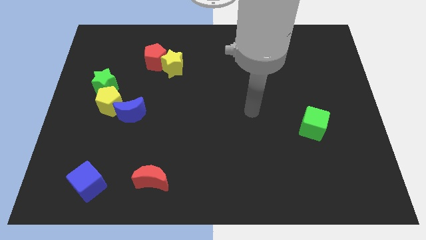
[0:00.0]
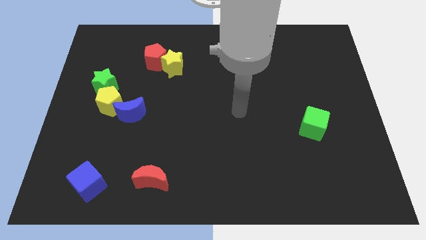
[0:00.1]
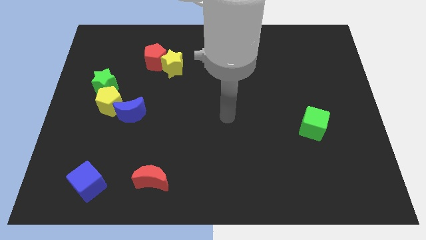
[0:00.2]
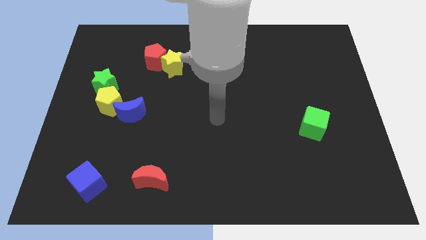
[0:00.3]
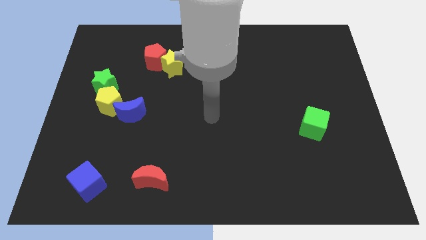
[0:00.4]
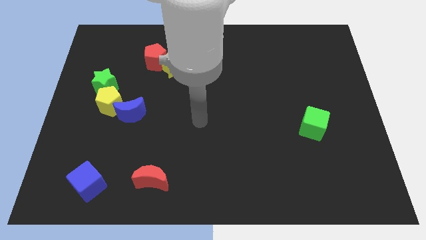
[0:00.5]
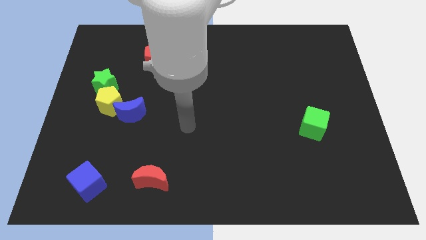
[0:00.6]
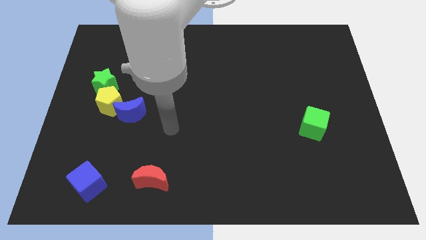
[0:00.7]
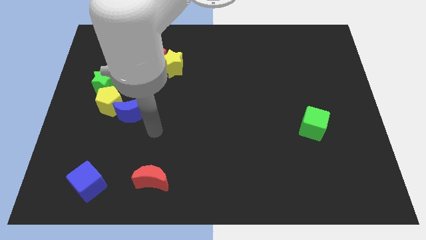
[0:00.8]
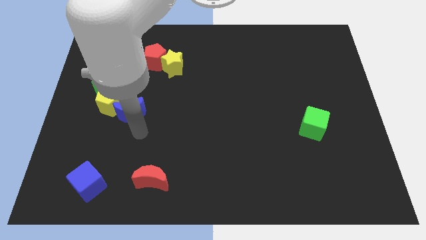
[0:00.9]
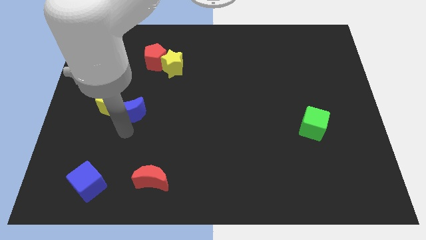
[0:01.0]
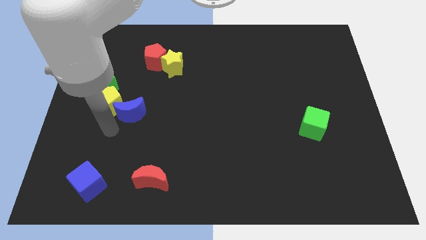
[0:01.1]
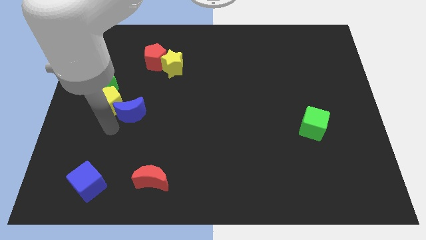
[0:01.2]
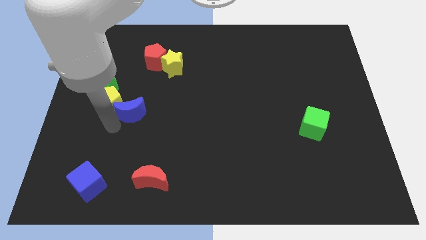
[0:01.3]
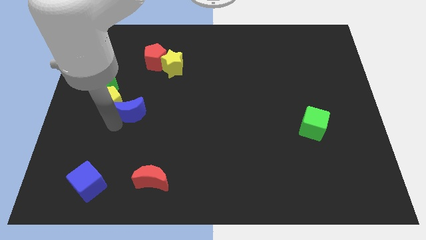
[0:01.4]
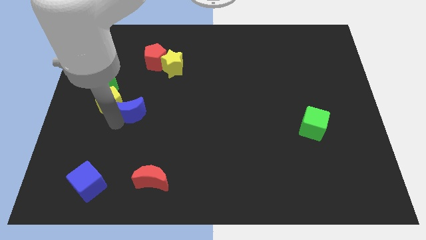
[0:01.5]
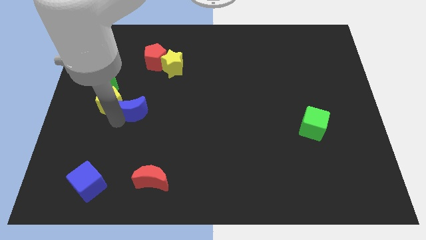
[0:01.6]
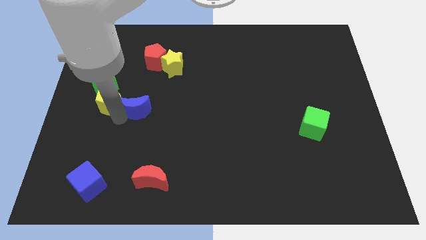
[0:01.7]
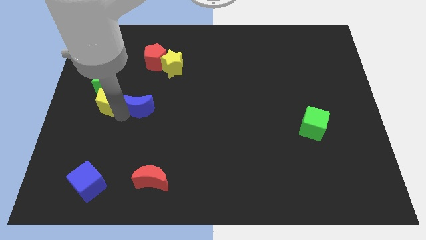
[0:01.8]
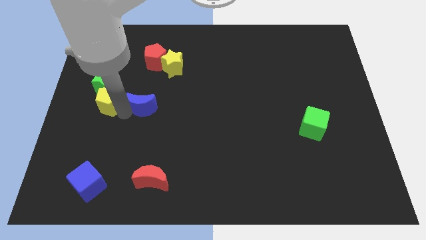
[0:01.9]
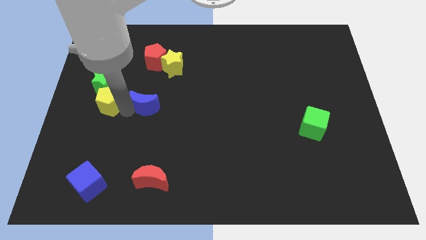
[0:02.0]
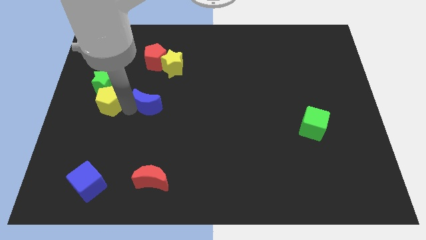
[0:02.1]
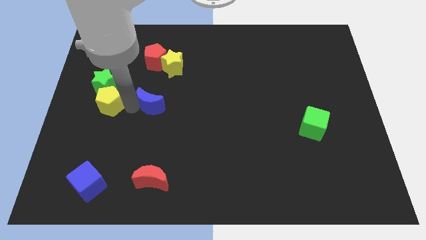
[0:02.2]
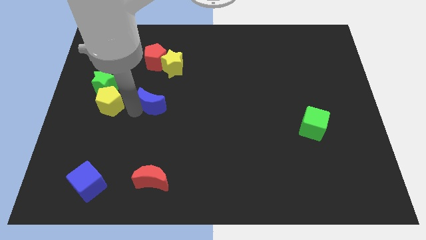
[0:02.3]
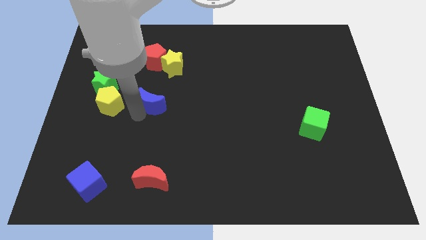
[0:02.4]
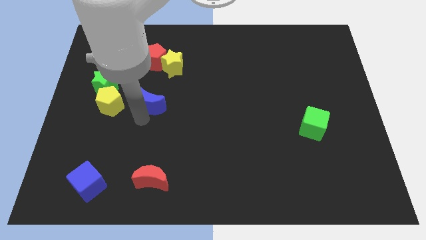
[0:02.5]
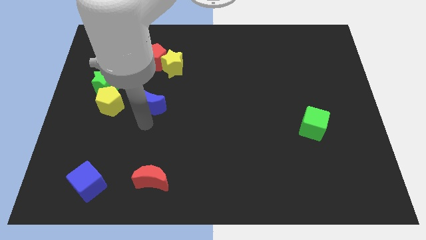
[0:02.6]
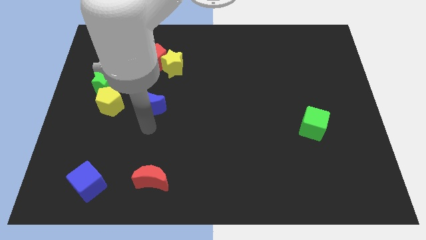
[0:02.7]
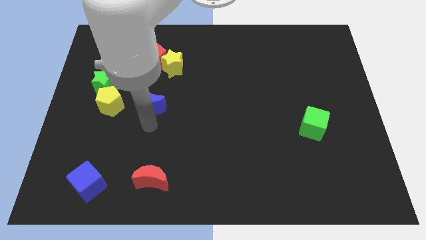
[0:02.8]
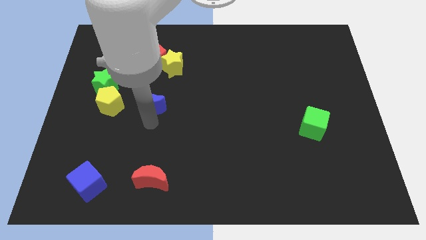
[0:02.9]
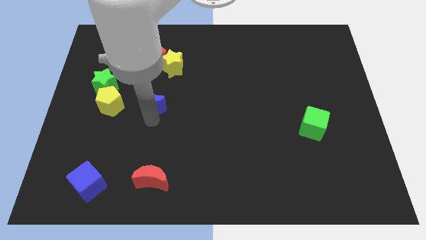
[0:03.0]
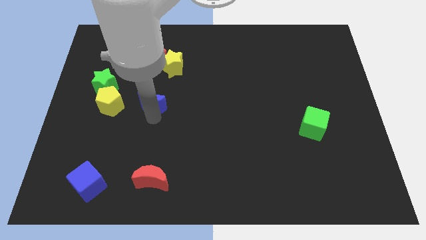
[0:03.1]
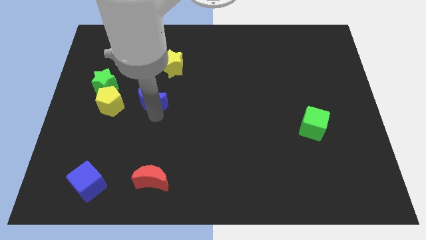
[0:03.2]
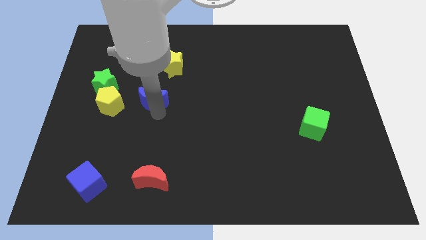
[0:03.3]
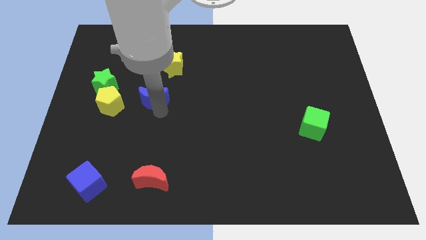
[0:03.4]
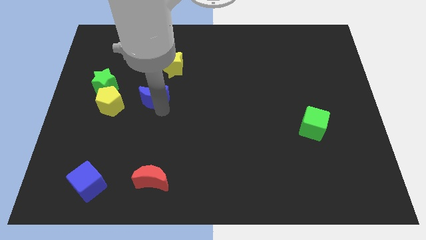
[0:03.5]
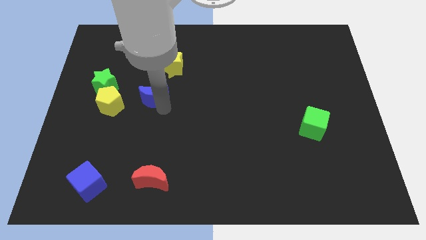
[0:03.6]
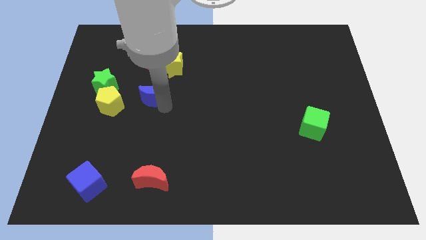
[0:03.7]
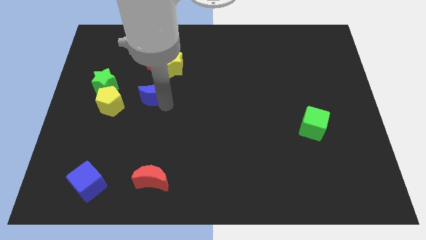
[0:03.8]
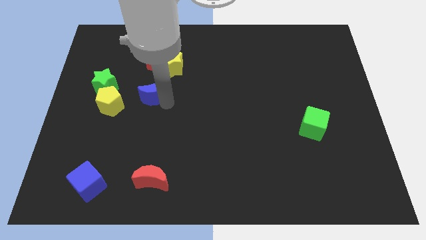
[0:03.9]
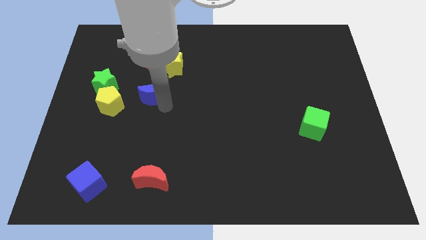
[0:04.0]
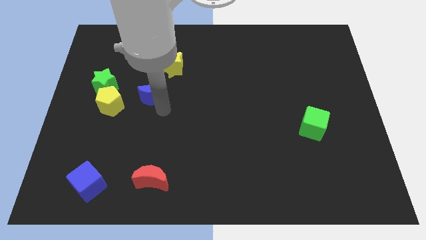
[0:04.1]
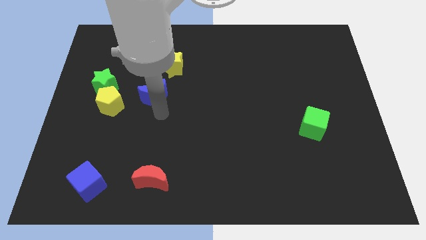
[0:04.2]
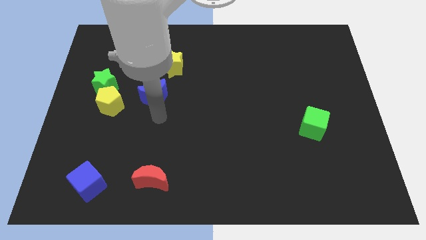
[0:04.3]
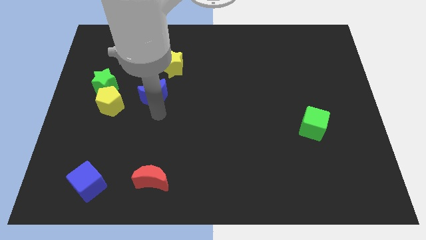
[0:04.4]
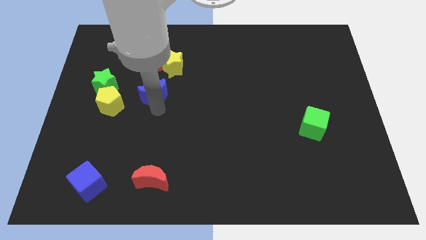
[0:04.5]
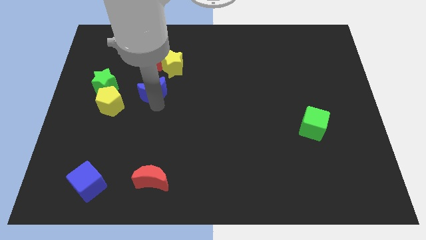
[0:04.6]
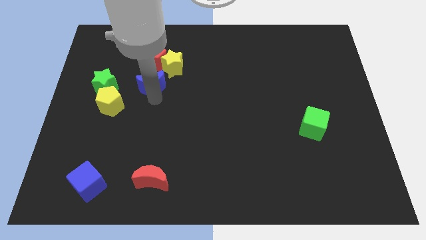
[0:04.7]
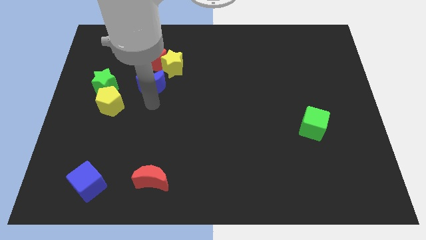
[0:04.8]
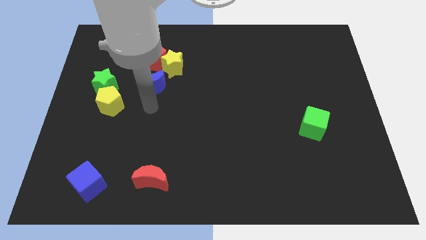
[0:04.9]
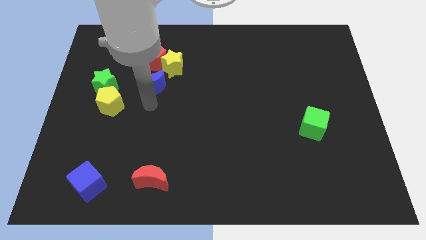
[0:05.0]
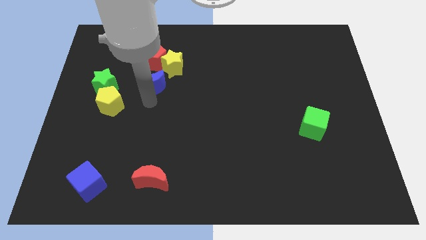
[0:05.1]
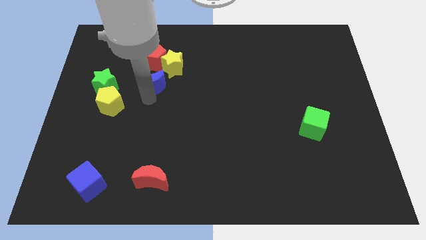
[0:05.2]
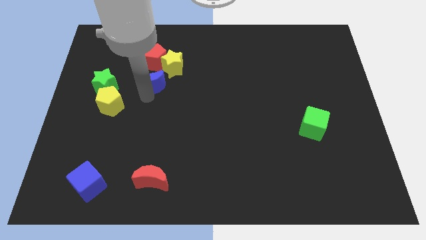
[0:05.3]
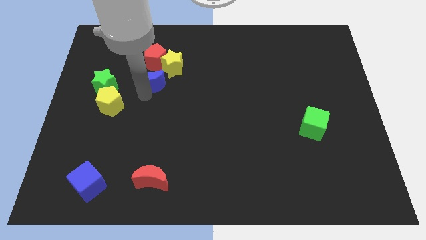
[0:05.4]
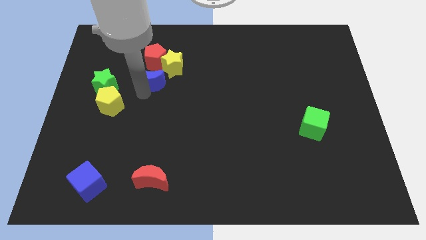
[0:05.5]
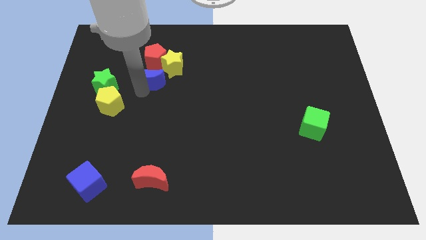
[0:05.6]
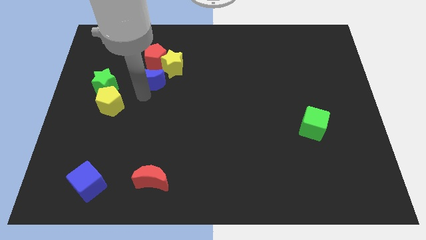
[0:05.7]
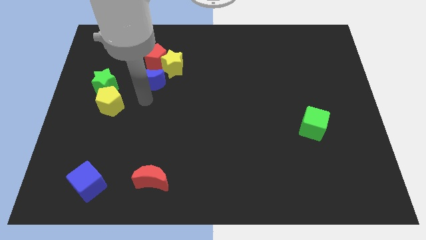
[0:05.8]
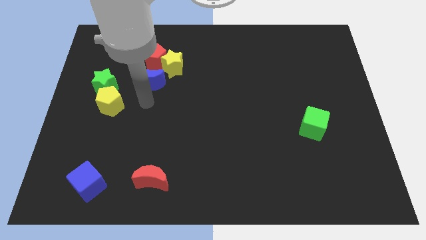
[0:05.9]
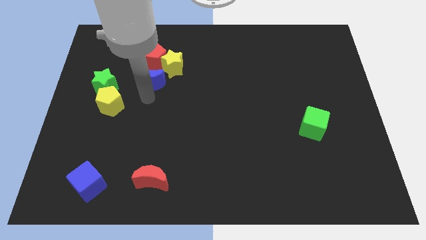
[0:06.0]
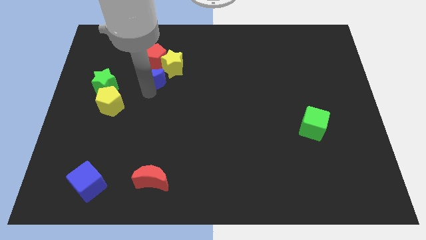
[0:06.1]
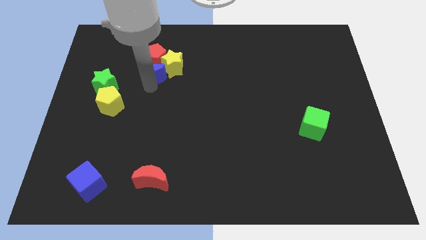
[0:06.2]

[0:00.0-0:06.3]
put the blue moon towards the red pentagon
